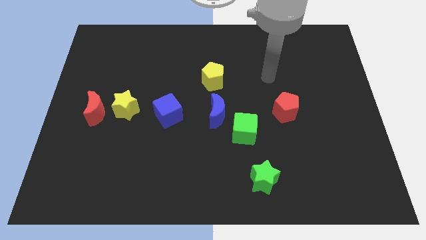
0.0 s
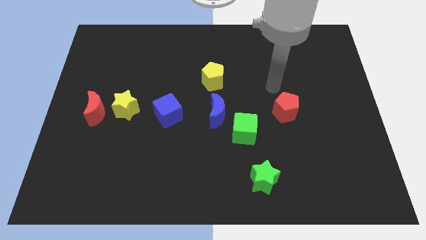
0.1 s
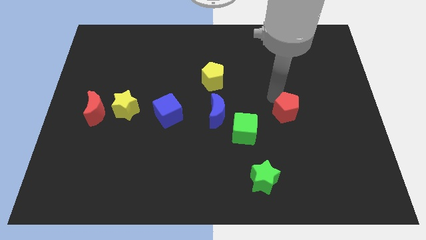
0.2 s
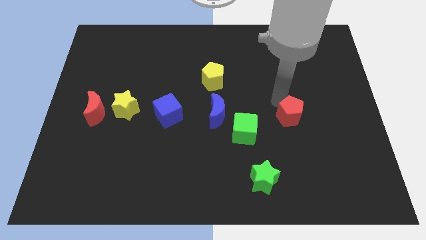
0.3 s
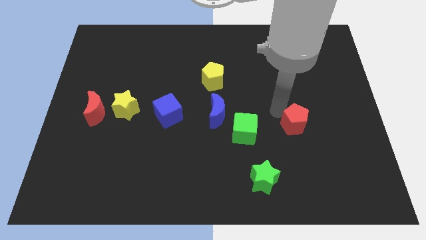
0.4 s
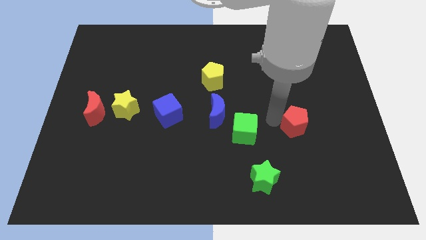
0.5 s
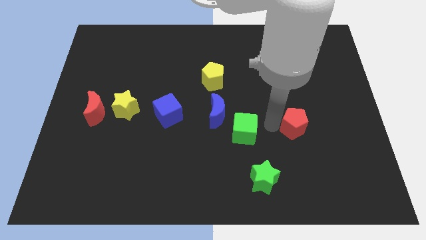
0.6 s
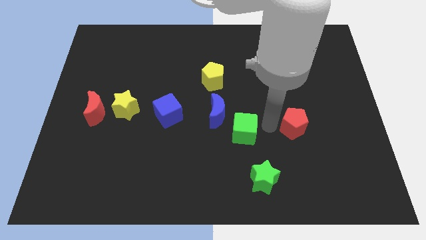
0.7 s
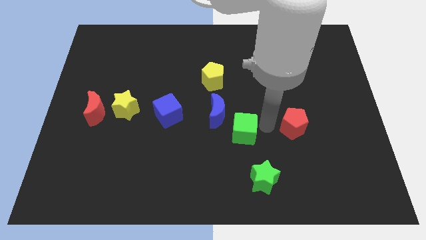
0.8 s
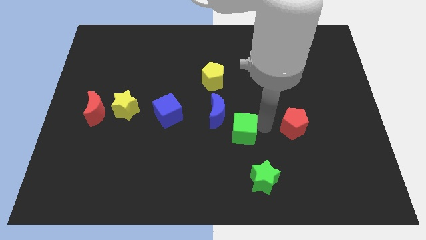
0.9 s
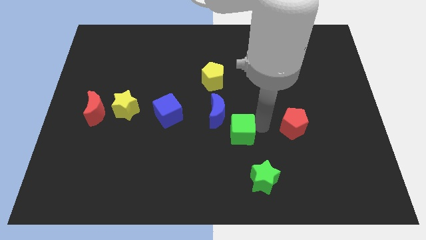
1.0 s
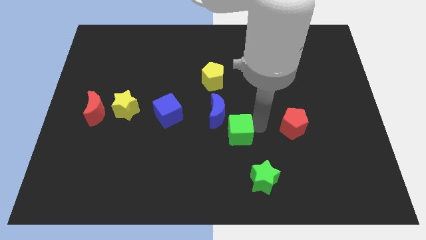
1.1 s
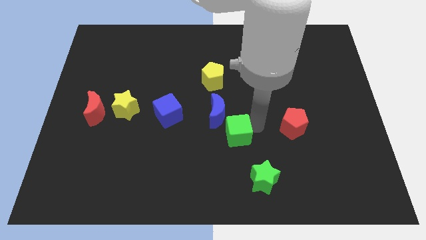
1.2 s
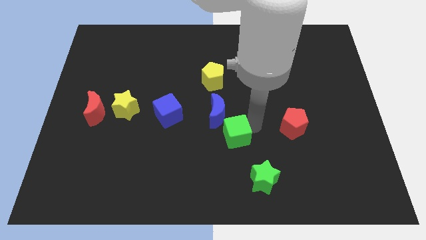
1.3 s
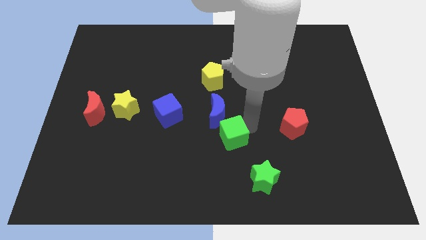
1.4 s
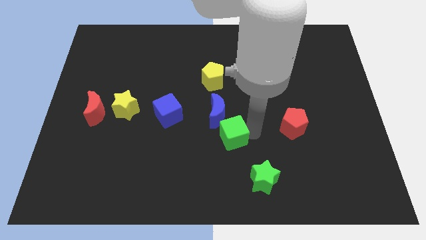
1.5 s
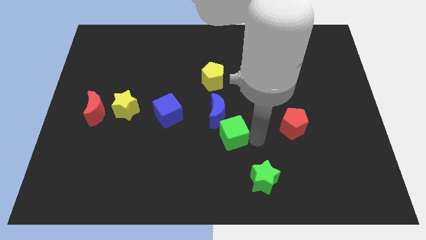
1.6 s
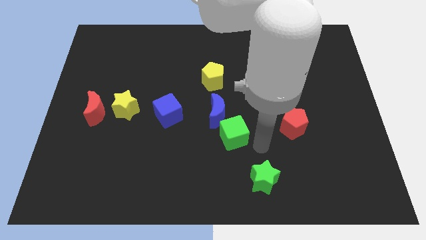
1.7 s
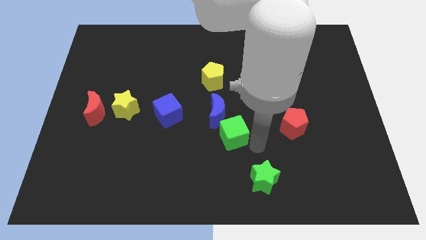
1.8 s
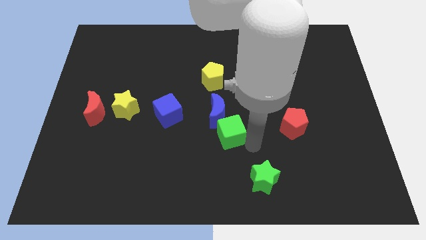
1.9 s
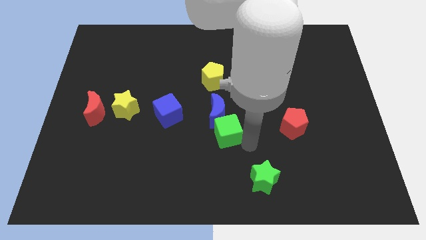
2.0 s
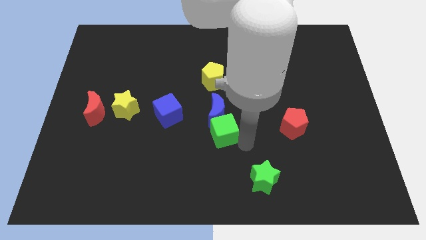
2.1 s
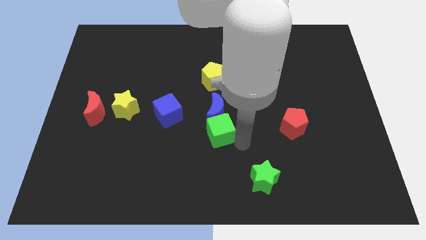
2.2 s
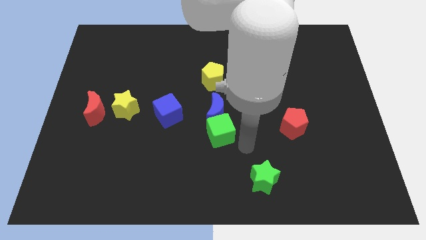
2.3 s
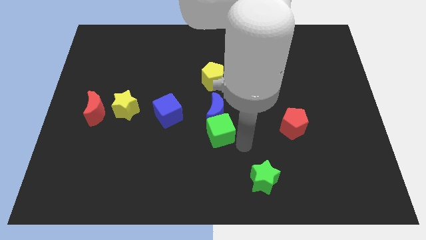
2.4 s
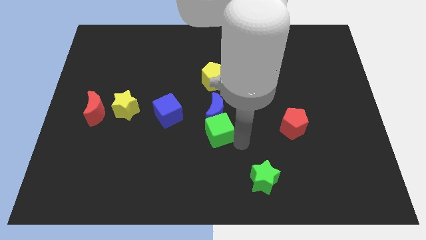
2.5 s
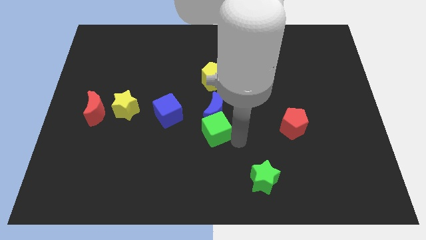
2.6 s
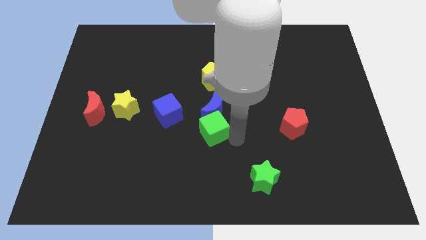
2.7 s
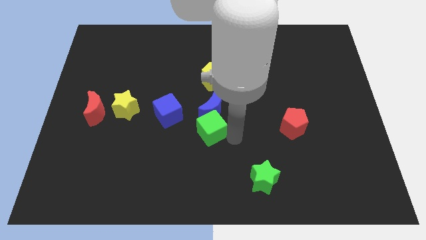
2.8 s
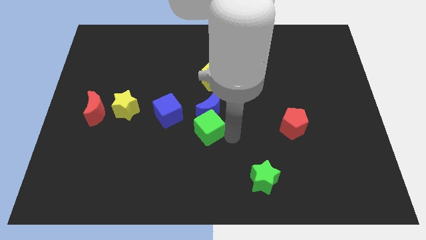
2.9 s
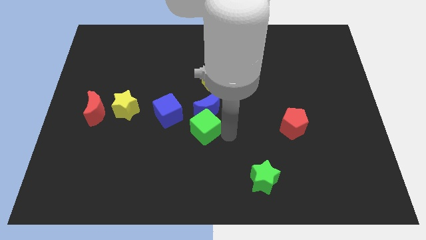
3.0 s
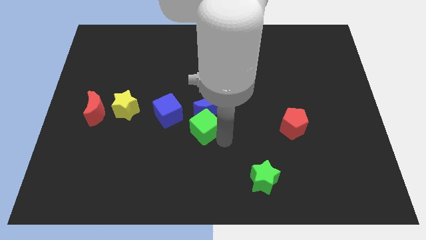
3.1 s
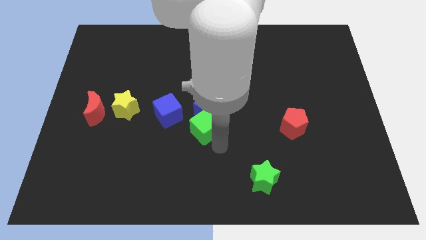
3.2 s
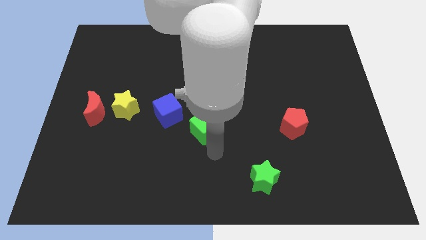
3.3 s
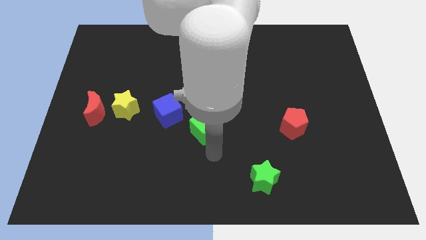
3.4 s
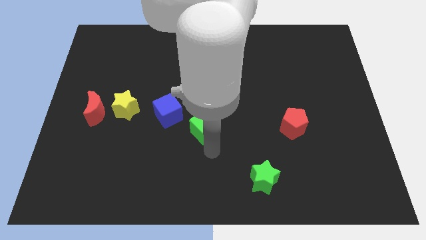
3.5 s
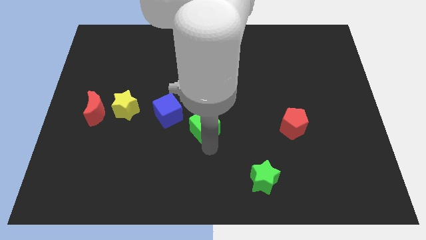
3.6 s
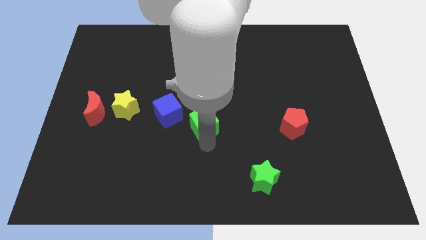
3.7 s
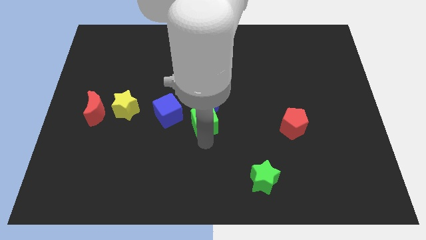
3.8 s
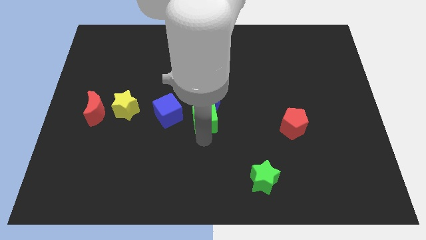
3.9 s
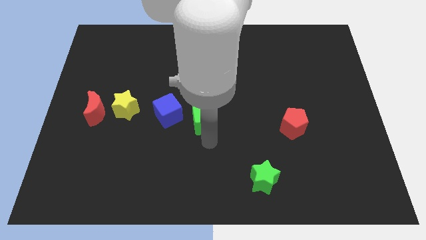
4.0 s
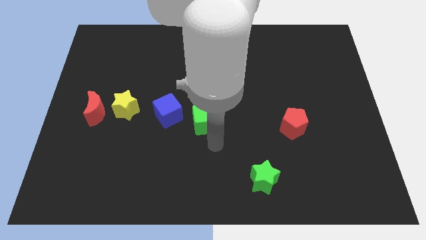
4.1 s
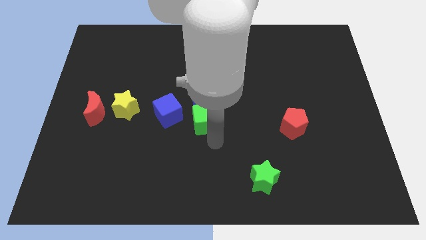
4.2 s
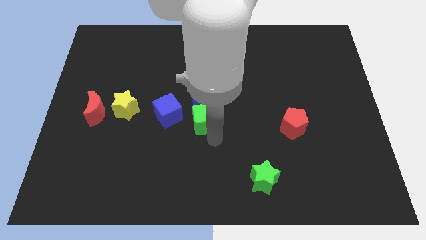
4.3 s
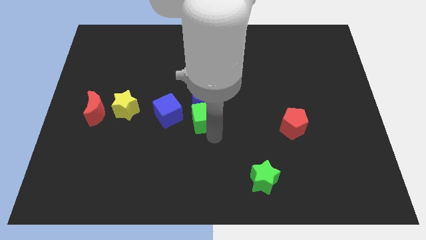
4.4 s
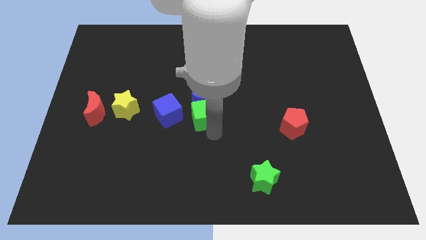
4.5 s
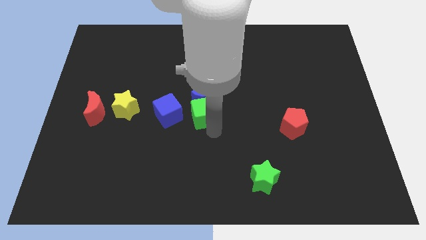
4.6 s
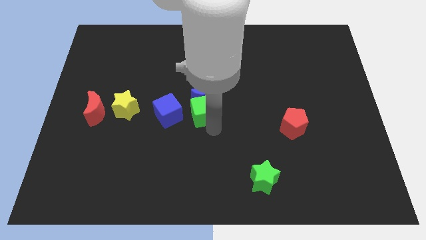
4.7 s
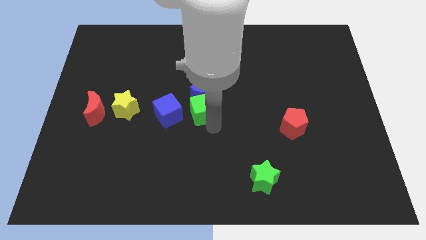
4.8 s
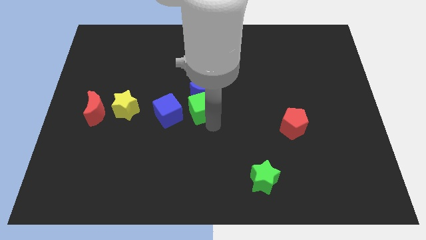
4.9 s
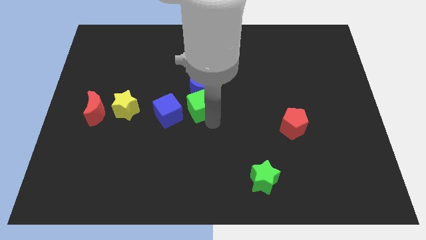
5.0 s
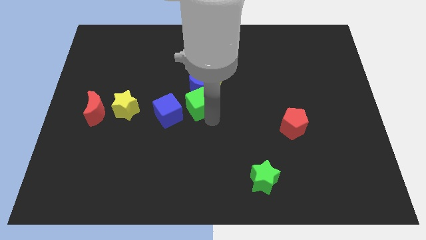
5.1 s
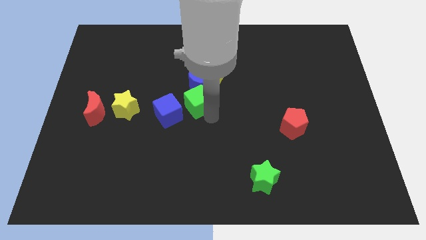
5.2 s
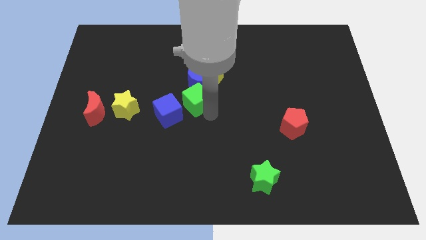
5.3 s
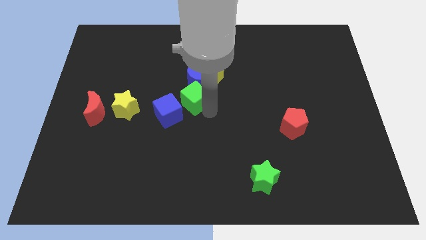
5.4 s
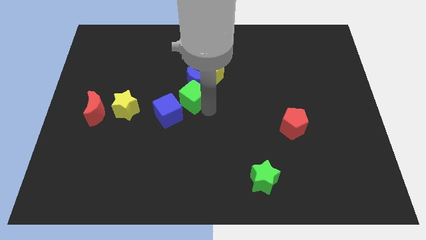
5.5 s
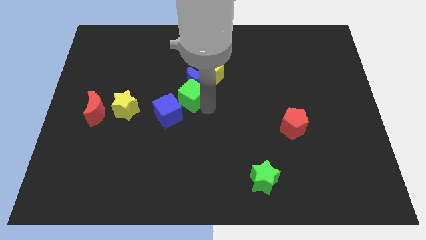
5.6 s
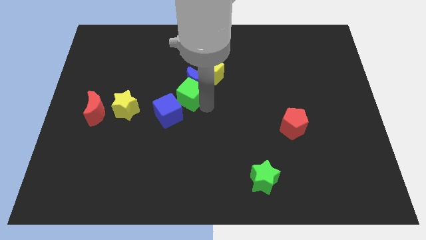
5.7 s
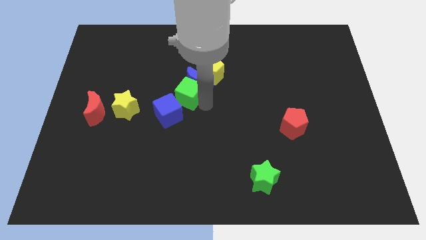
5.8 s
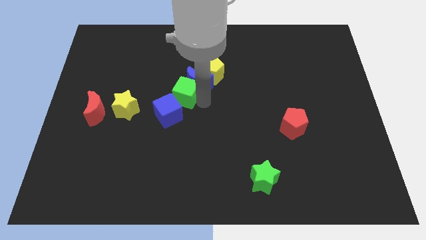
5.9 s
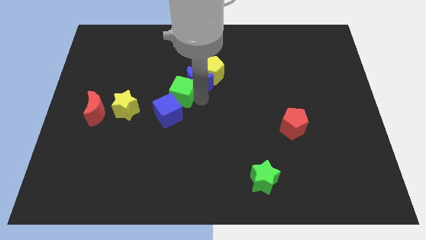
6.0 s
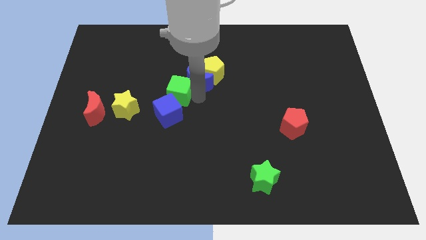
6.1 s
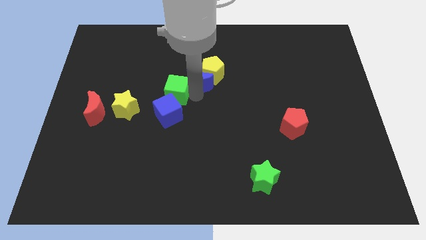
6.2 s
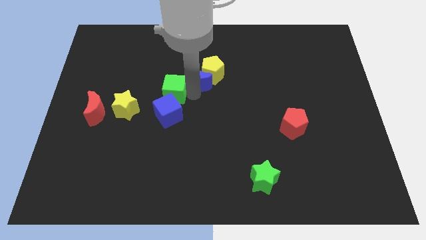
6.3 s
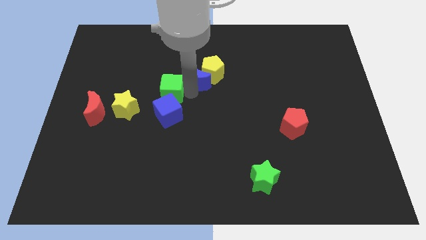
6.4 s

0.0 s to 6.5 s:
move the green cube diagonally up and to the right of the yellow star

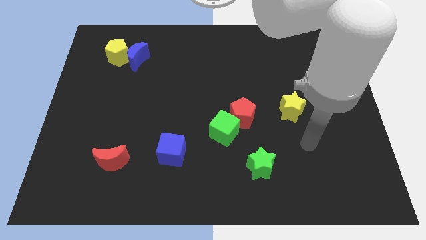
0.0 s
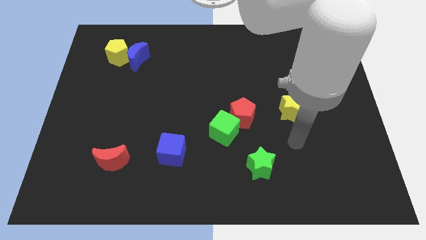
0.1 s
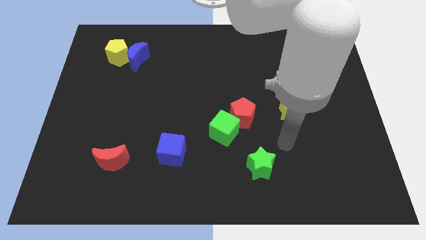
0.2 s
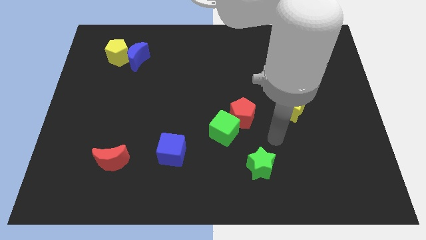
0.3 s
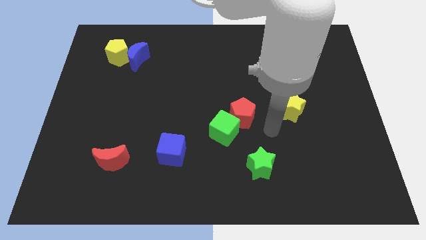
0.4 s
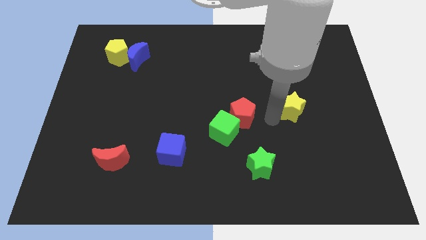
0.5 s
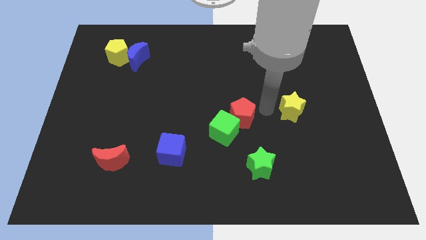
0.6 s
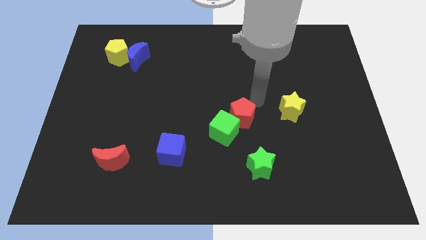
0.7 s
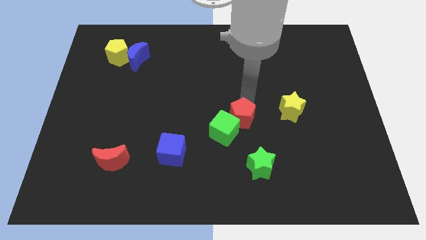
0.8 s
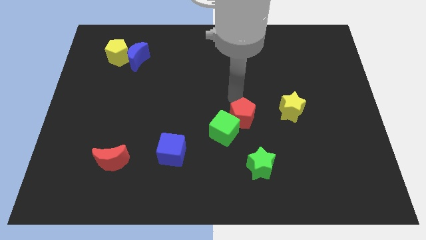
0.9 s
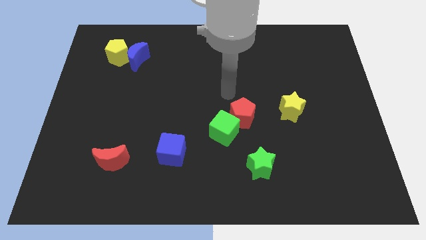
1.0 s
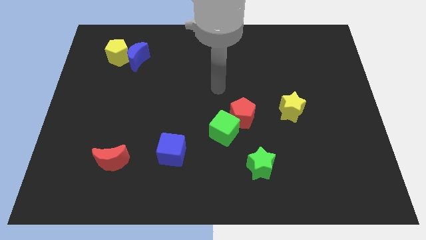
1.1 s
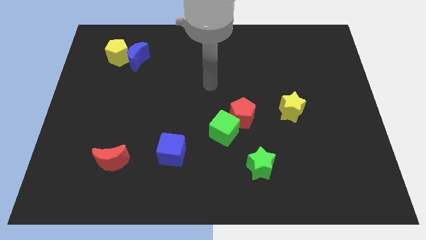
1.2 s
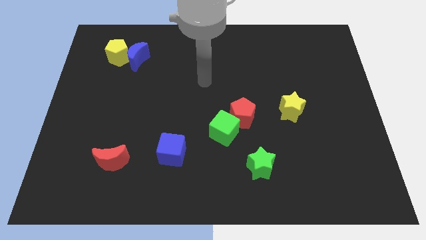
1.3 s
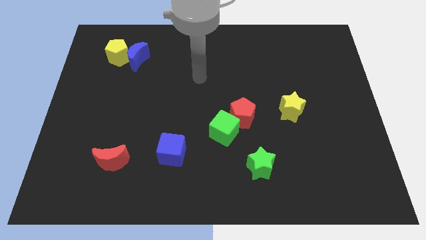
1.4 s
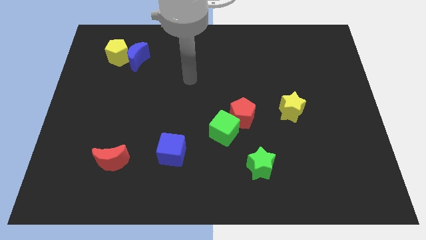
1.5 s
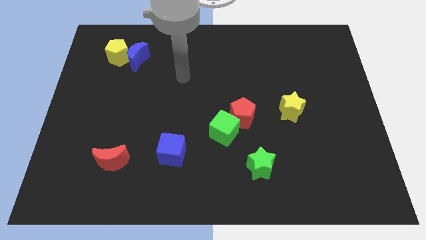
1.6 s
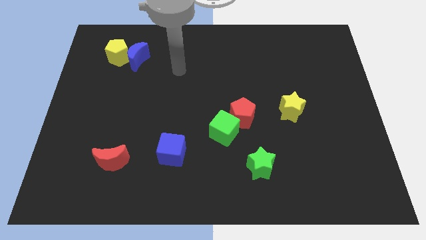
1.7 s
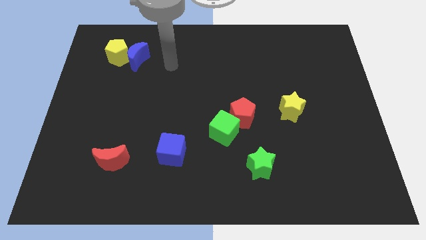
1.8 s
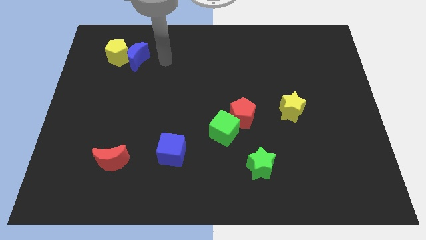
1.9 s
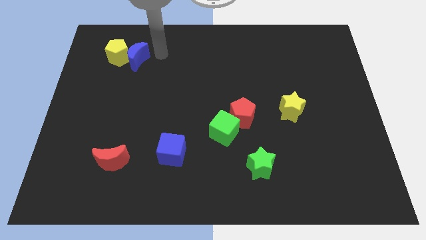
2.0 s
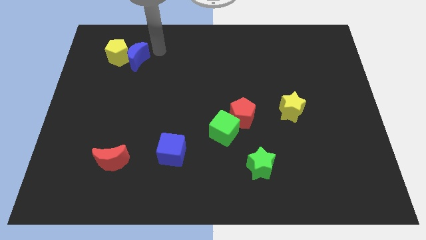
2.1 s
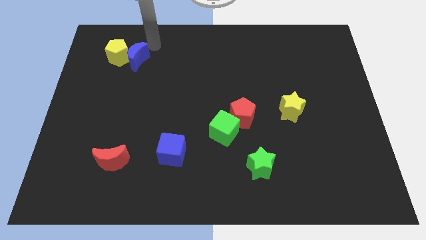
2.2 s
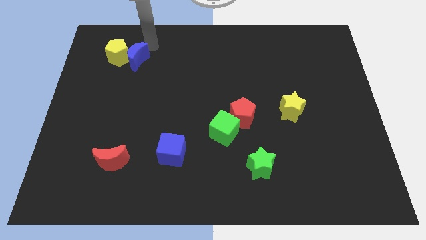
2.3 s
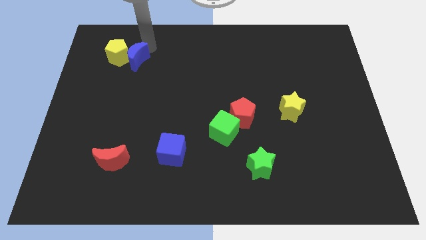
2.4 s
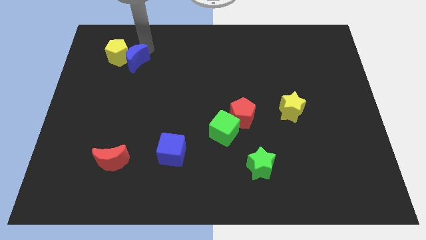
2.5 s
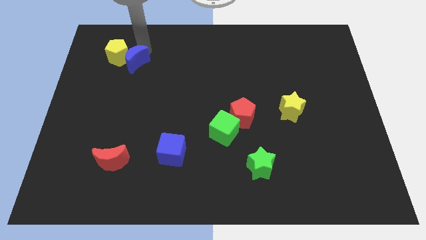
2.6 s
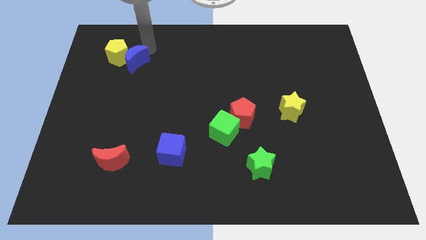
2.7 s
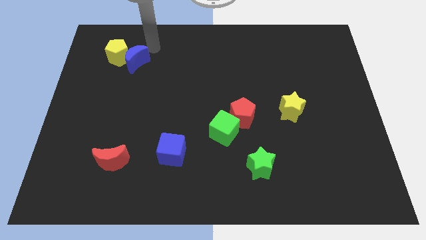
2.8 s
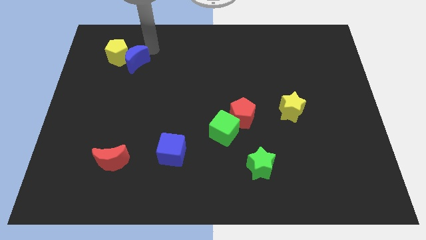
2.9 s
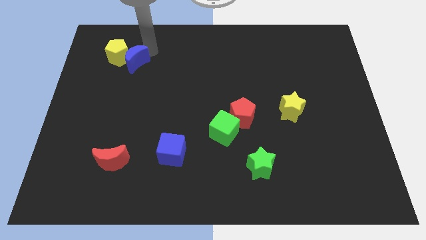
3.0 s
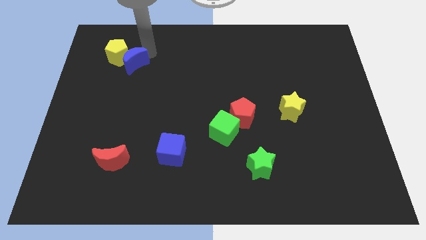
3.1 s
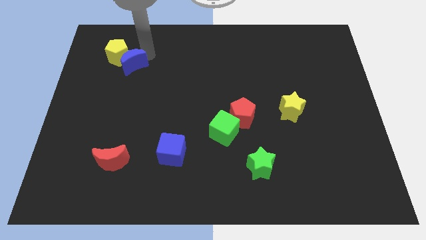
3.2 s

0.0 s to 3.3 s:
push the blue moon below the yellow pentagon
